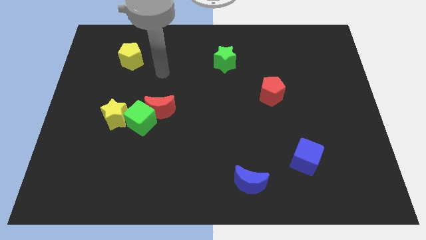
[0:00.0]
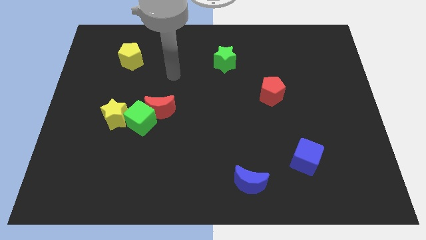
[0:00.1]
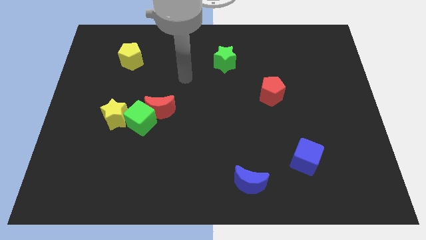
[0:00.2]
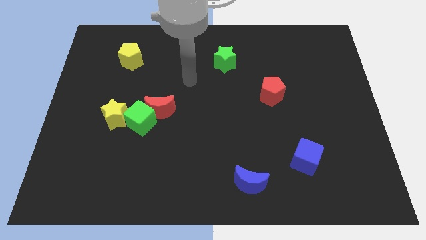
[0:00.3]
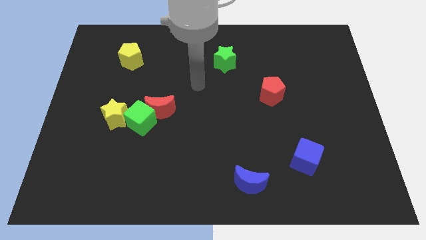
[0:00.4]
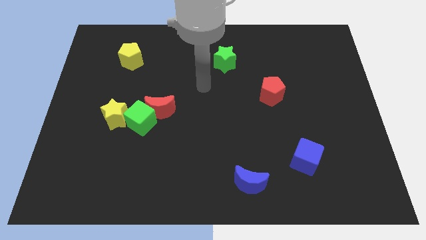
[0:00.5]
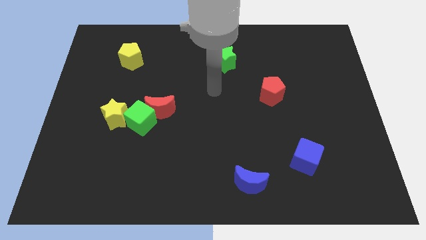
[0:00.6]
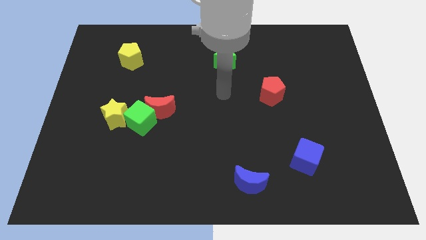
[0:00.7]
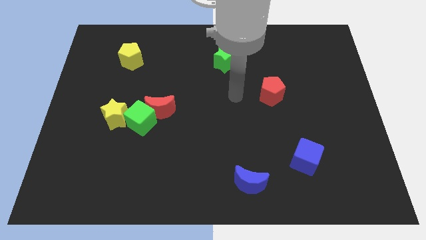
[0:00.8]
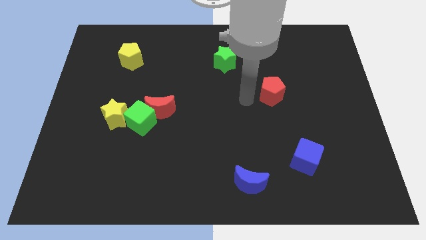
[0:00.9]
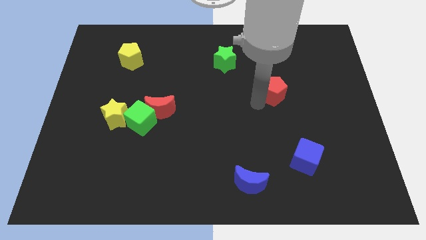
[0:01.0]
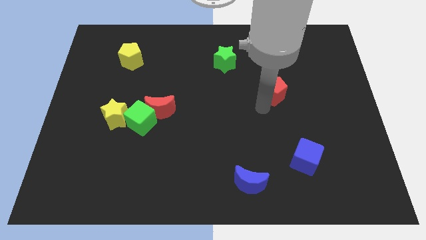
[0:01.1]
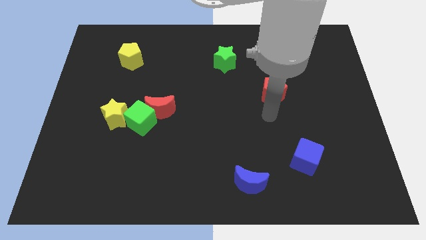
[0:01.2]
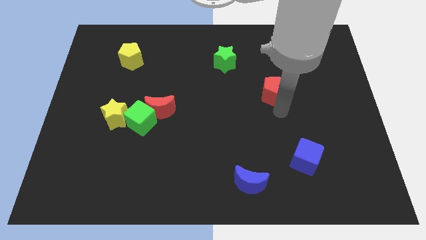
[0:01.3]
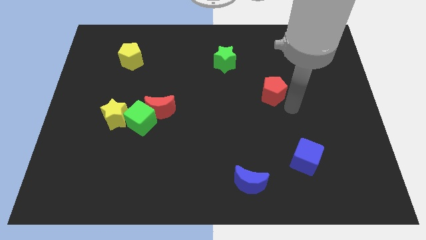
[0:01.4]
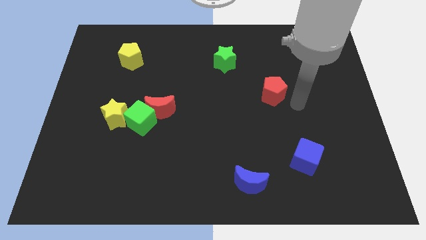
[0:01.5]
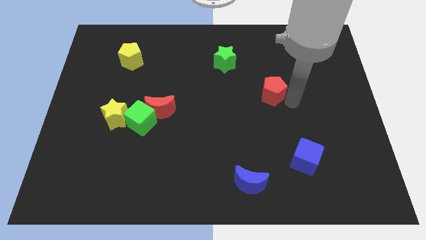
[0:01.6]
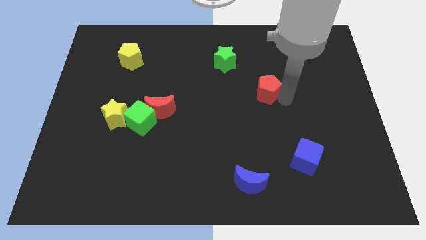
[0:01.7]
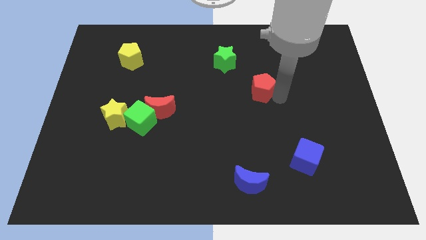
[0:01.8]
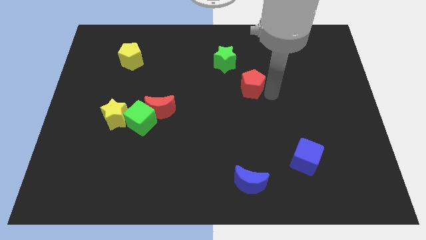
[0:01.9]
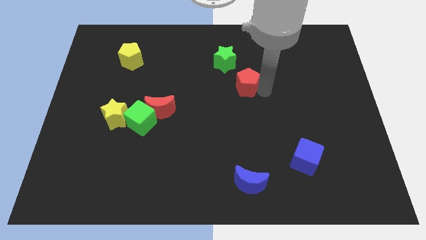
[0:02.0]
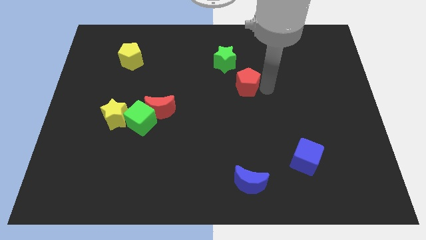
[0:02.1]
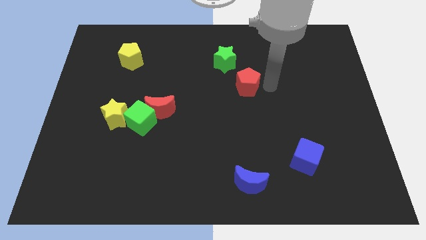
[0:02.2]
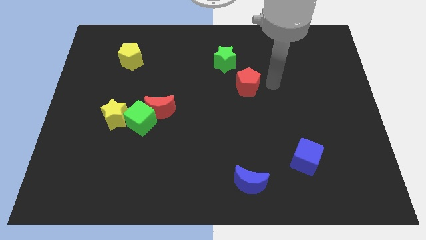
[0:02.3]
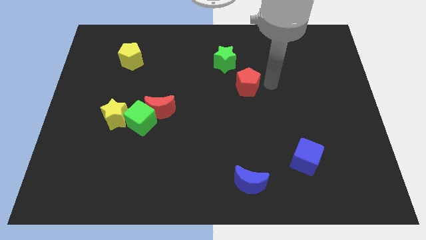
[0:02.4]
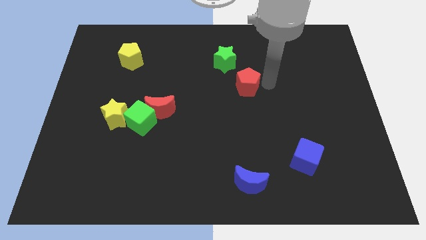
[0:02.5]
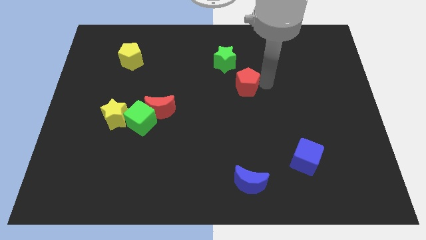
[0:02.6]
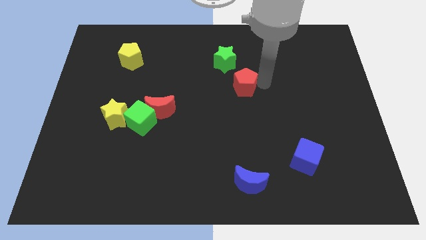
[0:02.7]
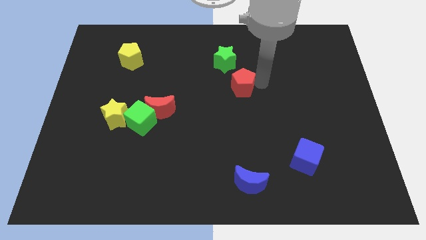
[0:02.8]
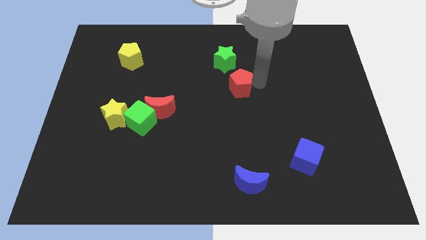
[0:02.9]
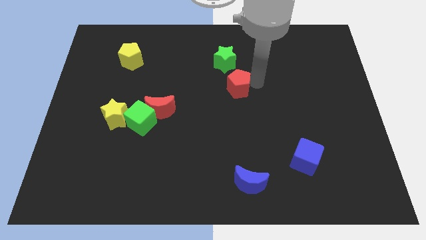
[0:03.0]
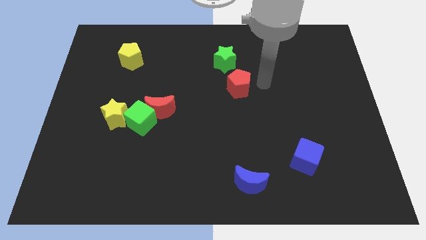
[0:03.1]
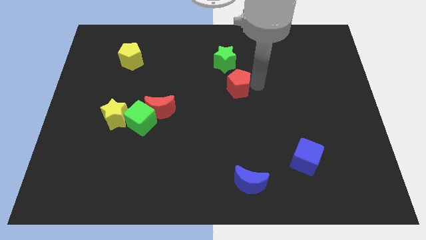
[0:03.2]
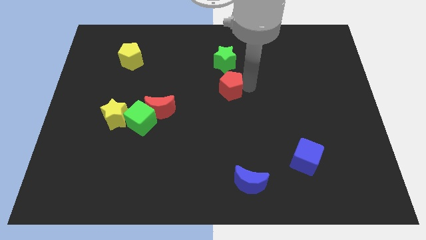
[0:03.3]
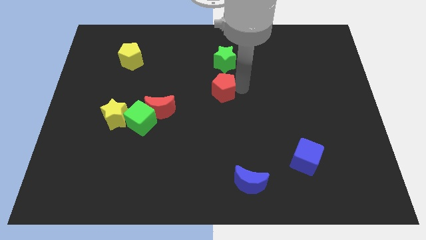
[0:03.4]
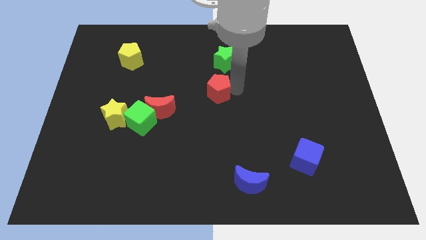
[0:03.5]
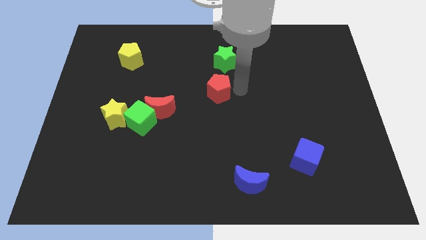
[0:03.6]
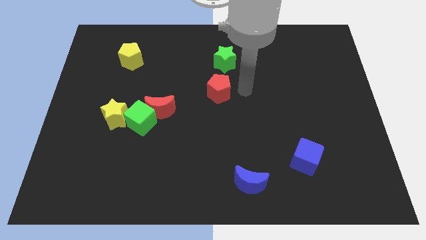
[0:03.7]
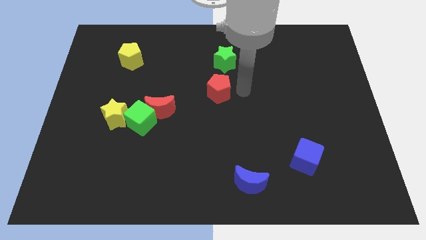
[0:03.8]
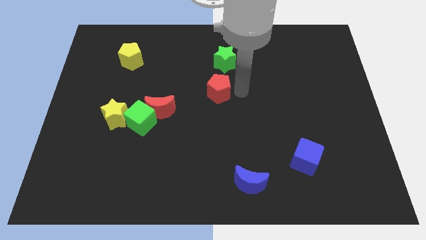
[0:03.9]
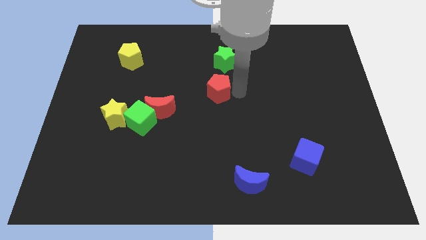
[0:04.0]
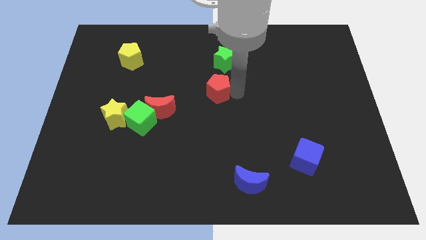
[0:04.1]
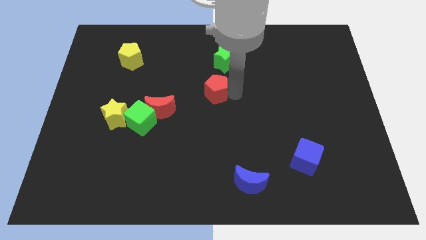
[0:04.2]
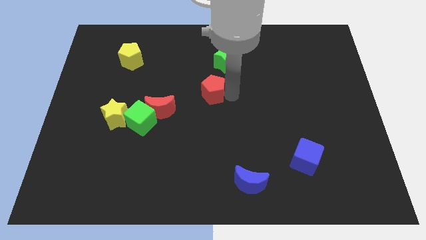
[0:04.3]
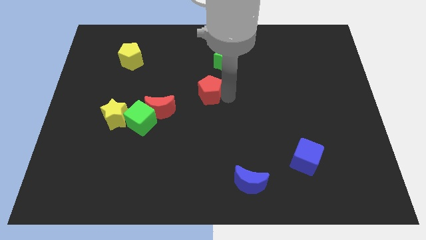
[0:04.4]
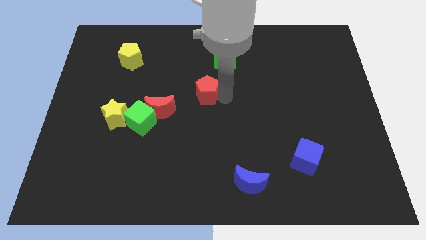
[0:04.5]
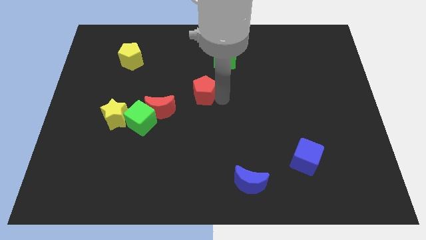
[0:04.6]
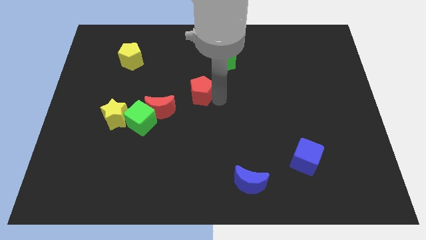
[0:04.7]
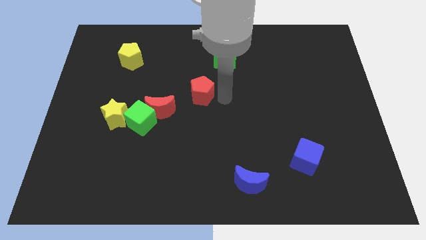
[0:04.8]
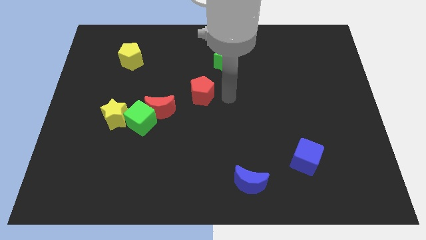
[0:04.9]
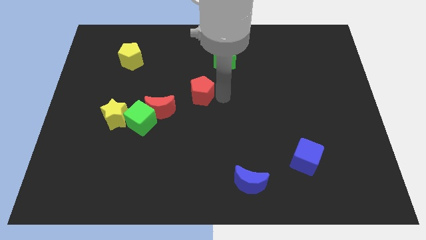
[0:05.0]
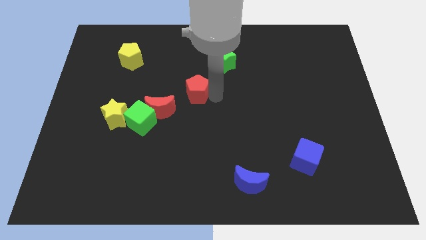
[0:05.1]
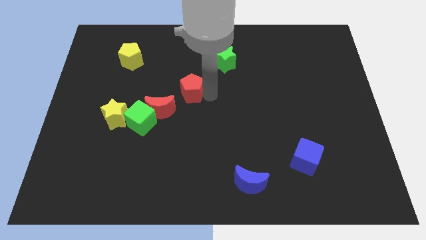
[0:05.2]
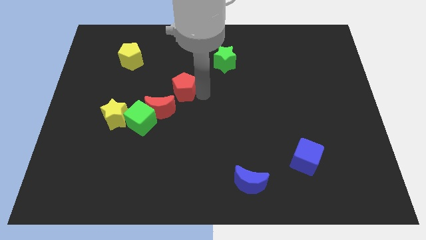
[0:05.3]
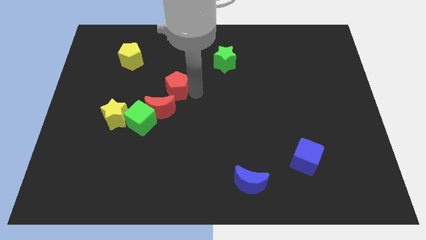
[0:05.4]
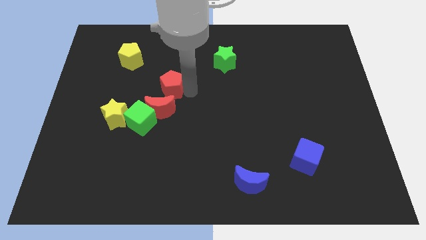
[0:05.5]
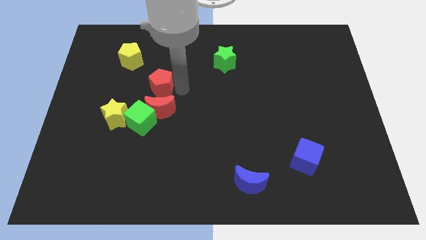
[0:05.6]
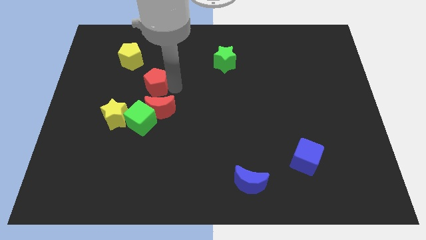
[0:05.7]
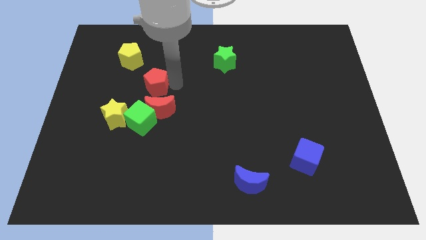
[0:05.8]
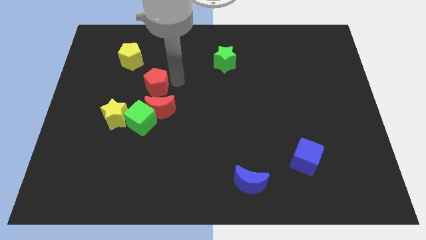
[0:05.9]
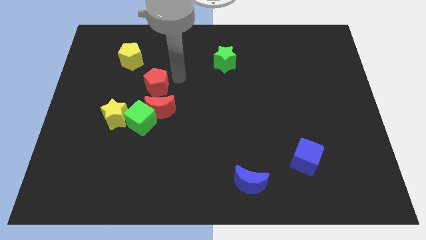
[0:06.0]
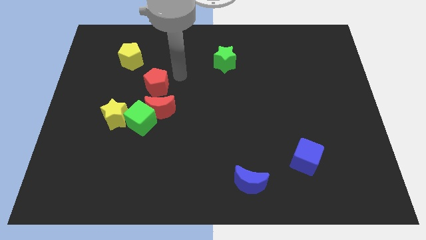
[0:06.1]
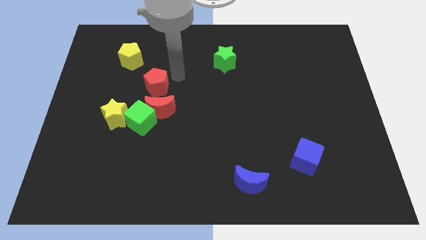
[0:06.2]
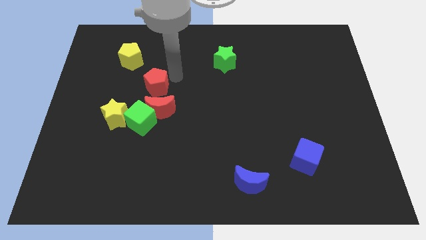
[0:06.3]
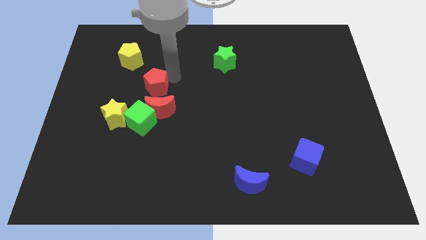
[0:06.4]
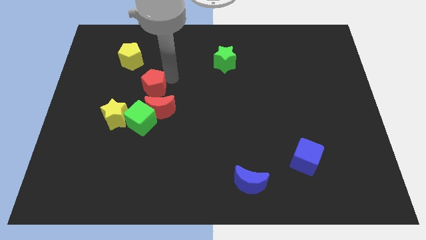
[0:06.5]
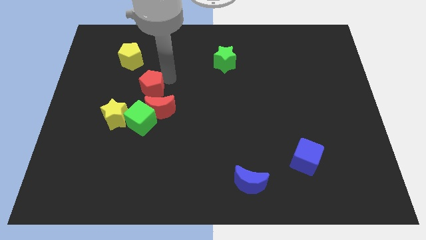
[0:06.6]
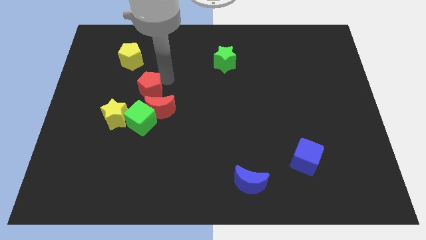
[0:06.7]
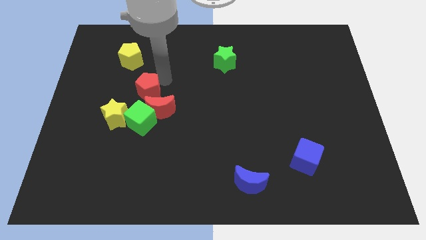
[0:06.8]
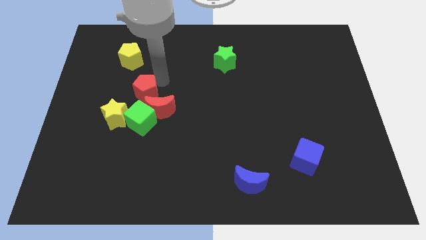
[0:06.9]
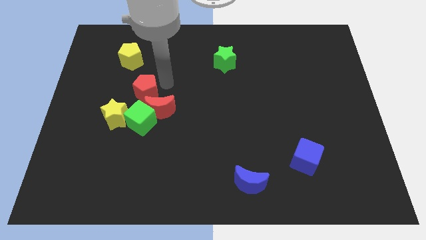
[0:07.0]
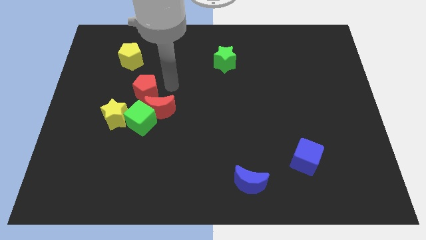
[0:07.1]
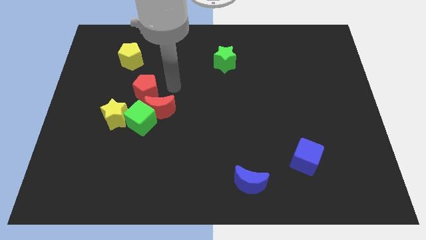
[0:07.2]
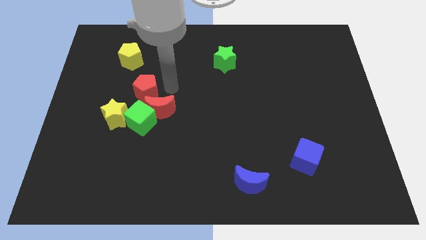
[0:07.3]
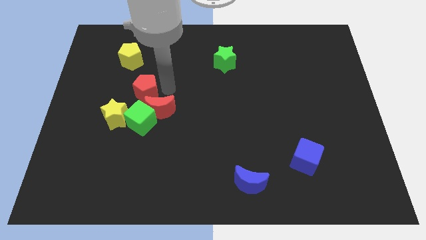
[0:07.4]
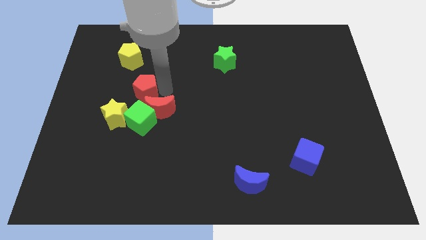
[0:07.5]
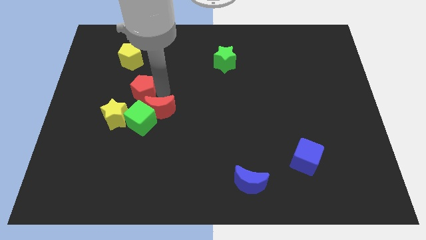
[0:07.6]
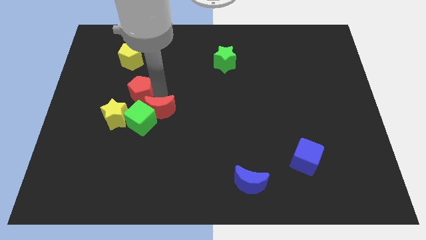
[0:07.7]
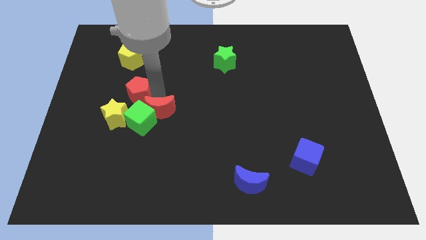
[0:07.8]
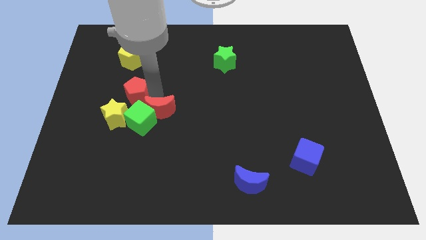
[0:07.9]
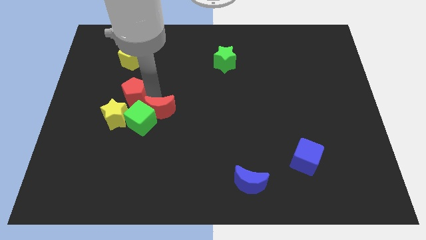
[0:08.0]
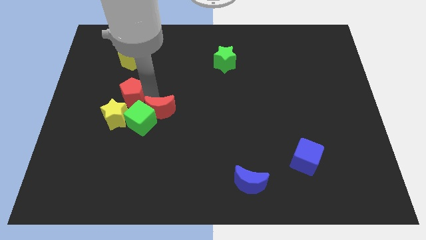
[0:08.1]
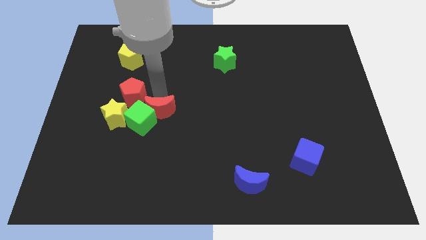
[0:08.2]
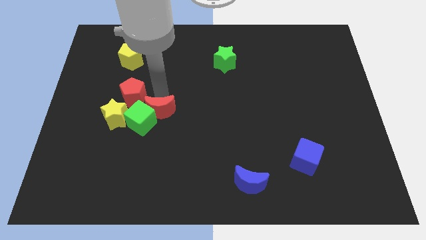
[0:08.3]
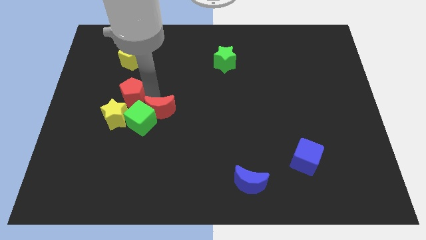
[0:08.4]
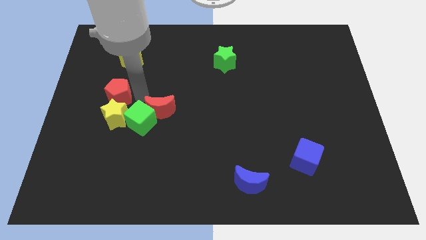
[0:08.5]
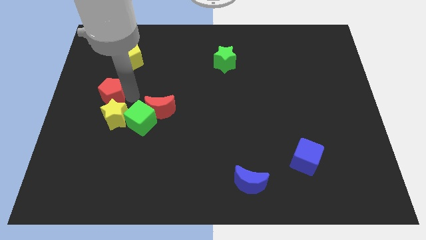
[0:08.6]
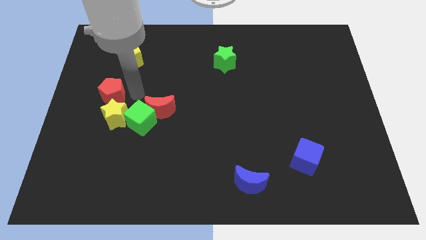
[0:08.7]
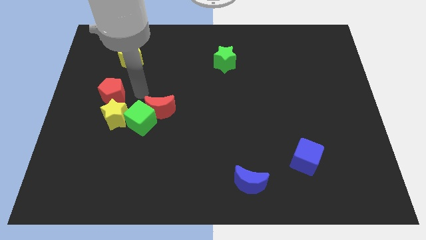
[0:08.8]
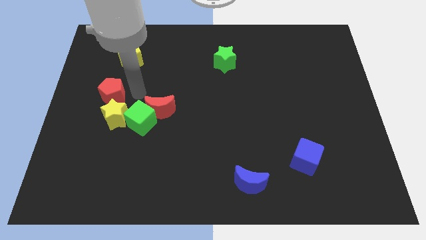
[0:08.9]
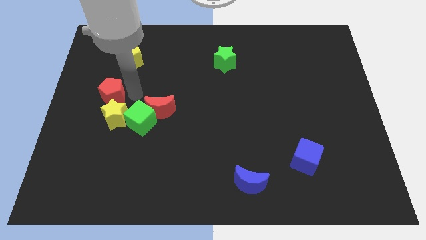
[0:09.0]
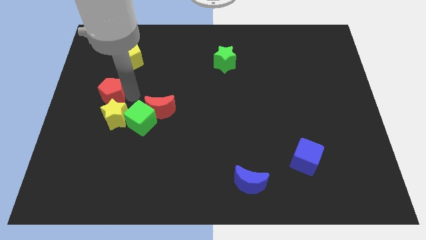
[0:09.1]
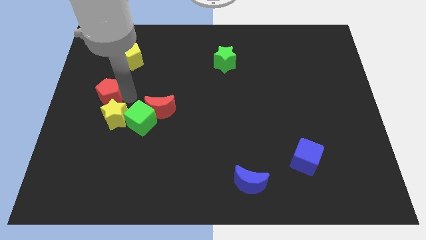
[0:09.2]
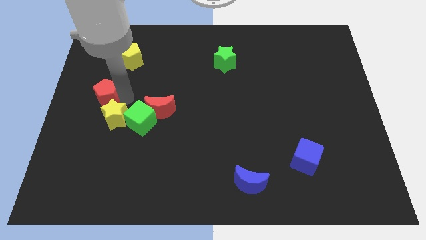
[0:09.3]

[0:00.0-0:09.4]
put the red pentagon to the left side
